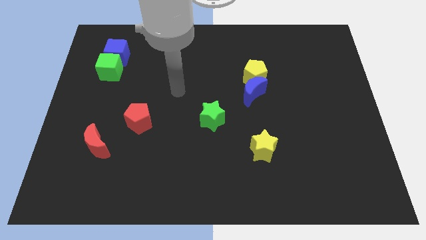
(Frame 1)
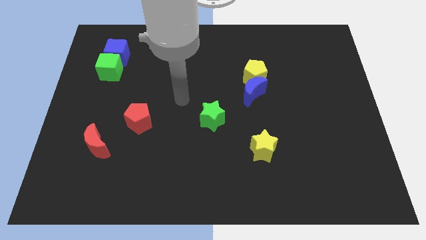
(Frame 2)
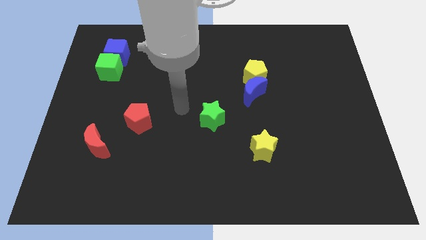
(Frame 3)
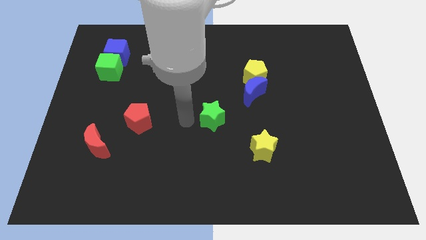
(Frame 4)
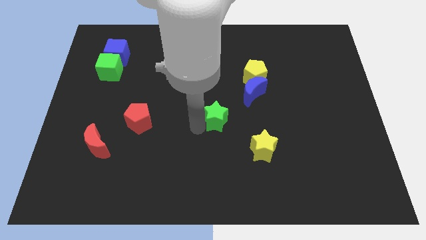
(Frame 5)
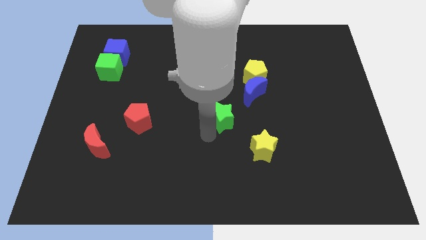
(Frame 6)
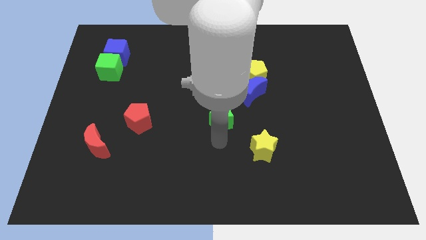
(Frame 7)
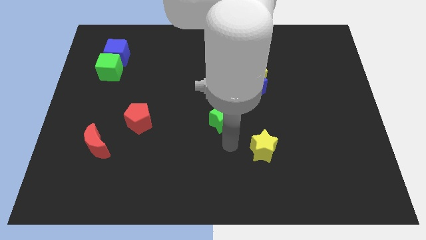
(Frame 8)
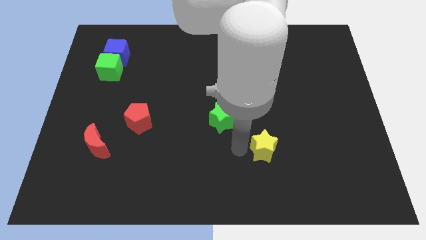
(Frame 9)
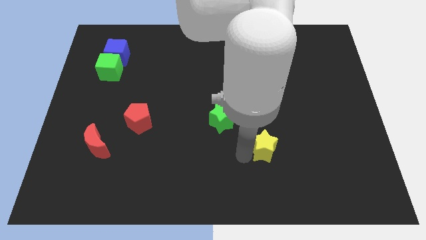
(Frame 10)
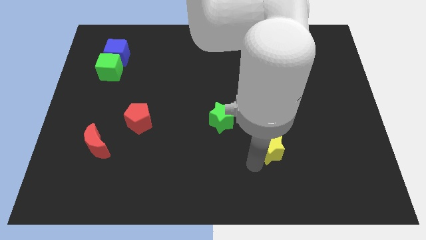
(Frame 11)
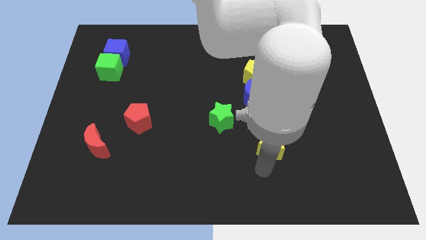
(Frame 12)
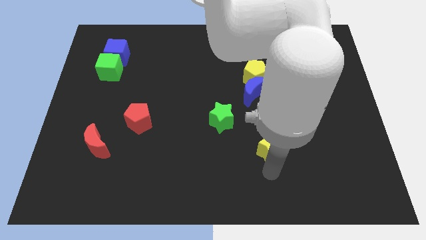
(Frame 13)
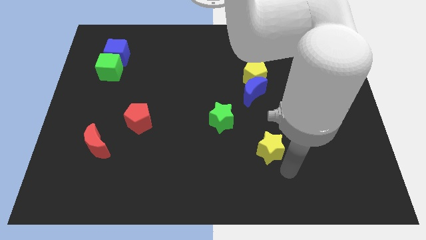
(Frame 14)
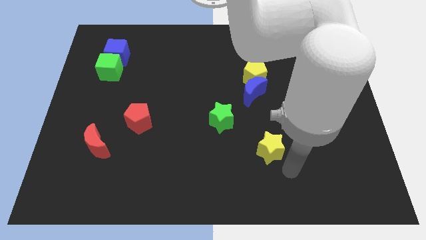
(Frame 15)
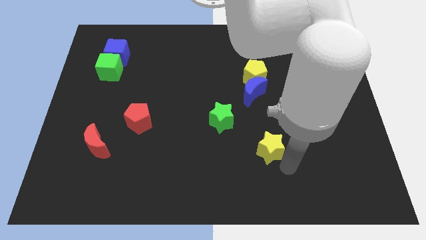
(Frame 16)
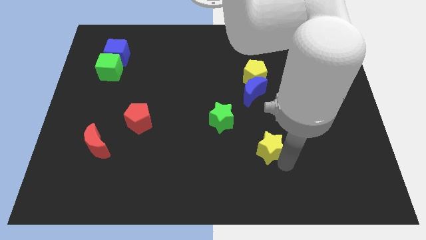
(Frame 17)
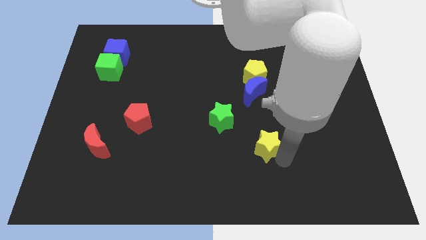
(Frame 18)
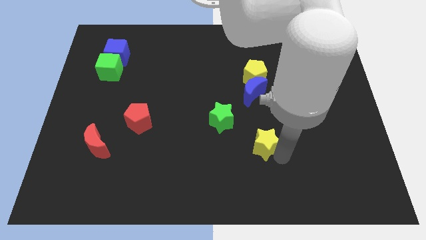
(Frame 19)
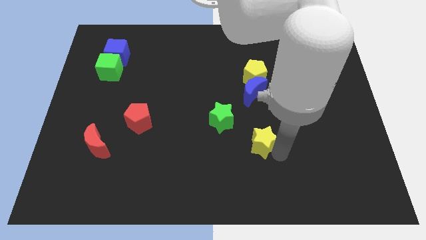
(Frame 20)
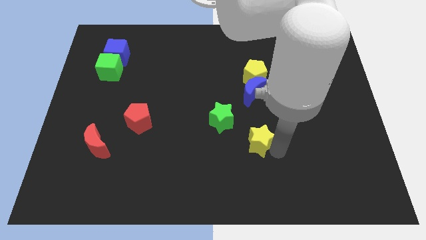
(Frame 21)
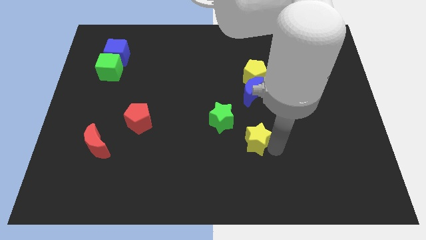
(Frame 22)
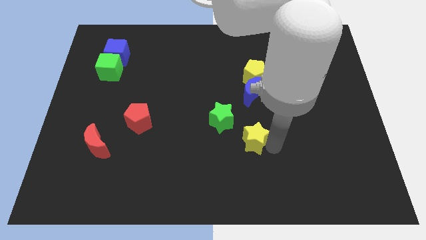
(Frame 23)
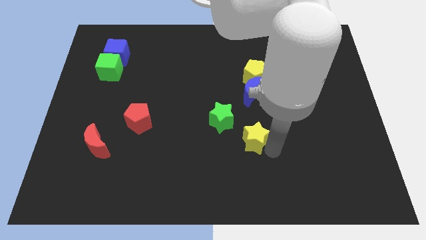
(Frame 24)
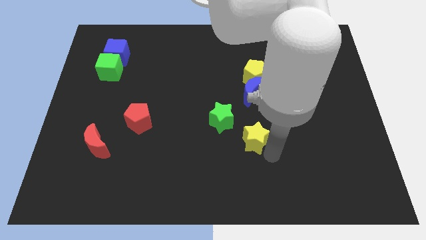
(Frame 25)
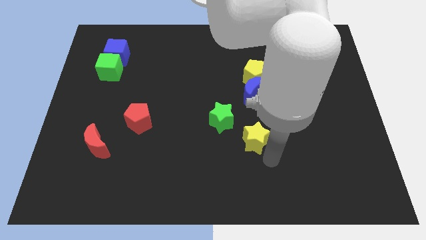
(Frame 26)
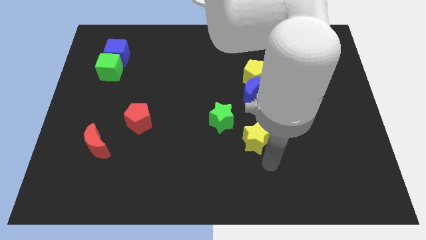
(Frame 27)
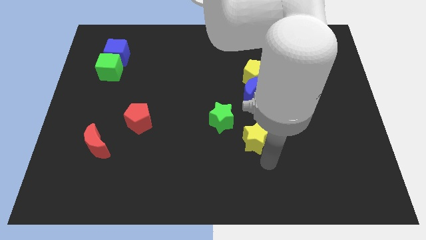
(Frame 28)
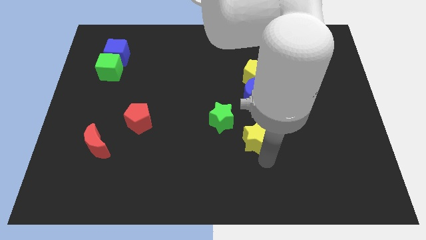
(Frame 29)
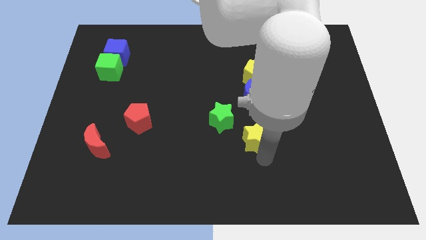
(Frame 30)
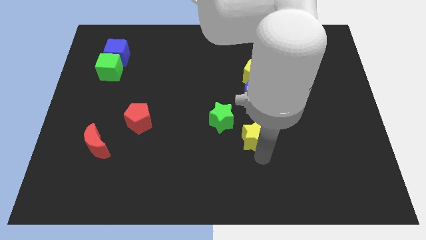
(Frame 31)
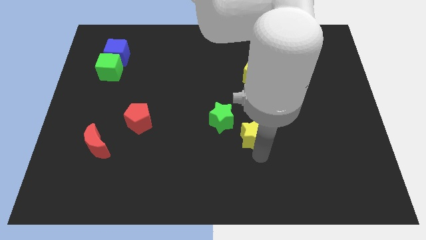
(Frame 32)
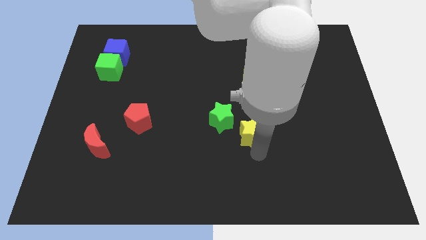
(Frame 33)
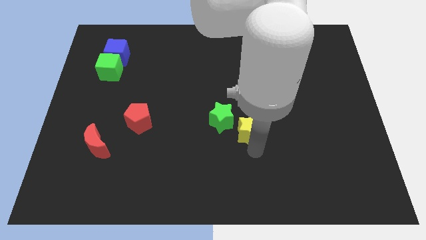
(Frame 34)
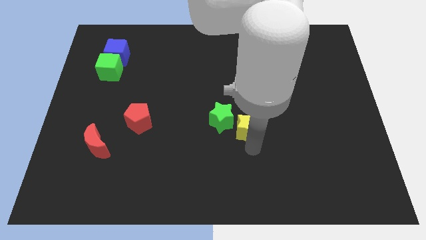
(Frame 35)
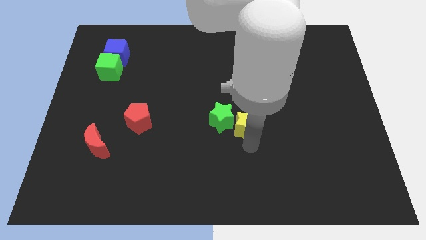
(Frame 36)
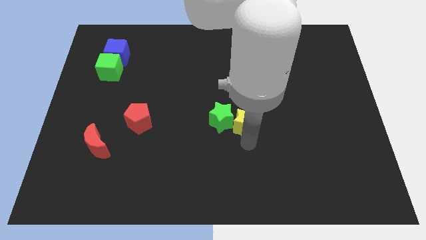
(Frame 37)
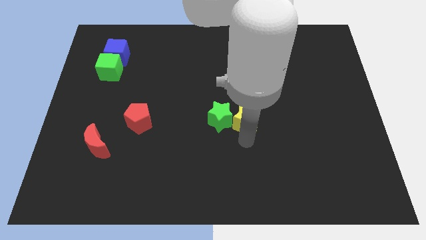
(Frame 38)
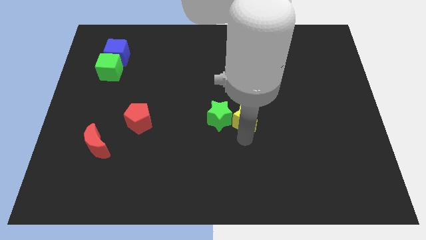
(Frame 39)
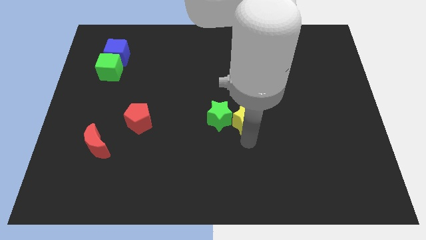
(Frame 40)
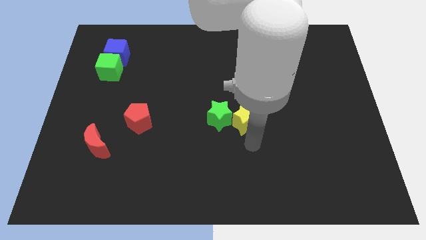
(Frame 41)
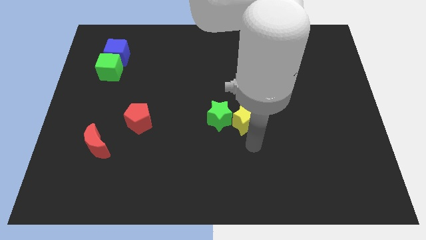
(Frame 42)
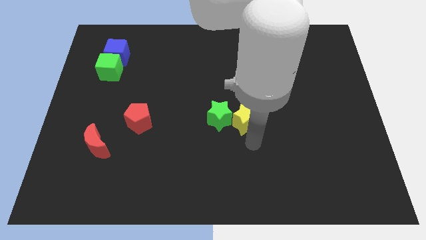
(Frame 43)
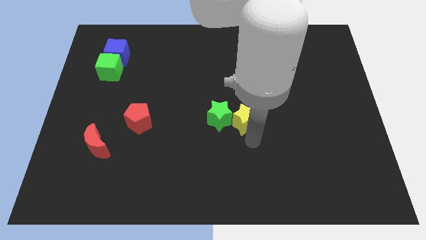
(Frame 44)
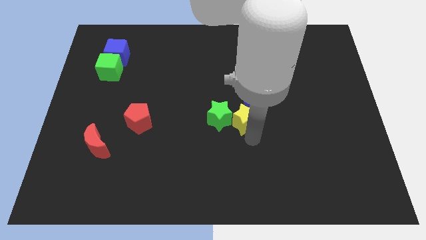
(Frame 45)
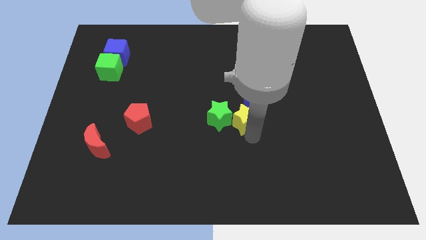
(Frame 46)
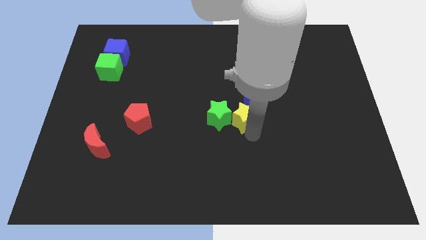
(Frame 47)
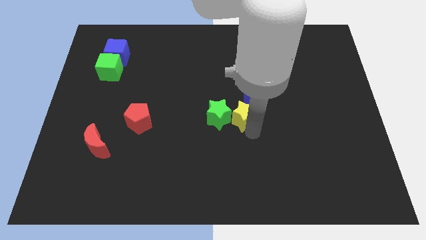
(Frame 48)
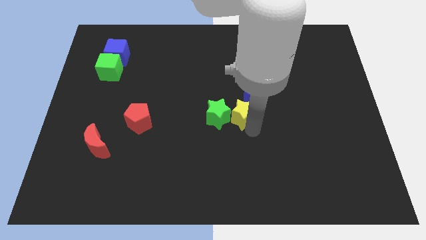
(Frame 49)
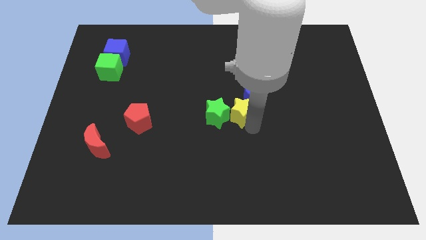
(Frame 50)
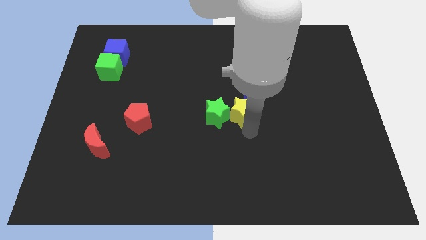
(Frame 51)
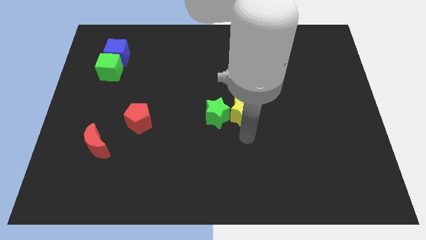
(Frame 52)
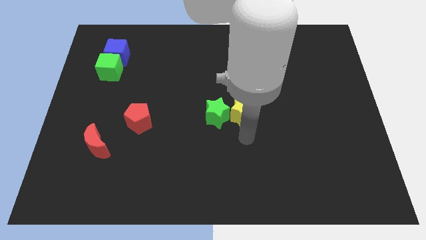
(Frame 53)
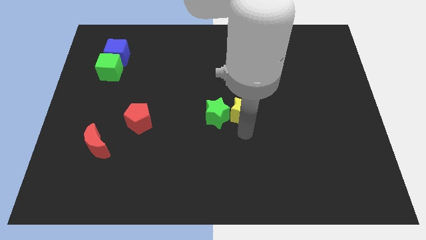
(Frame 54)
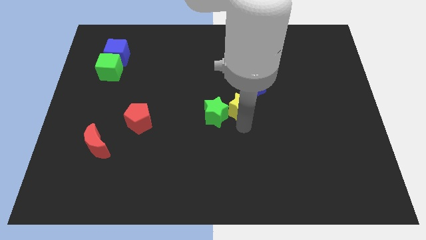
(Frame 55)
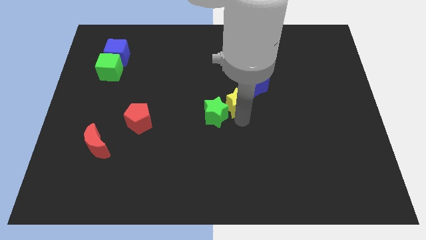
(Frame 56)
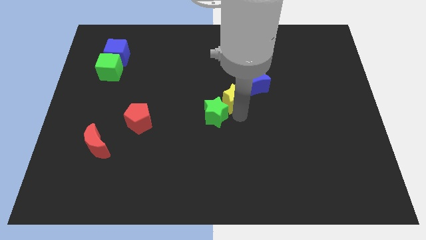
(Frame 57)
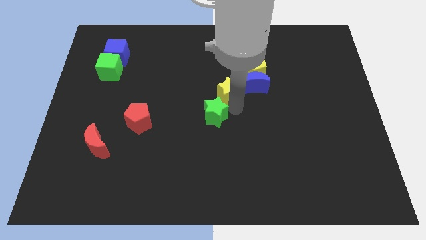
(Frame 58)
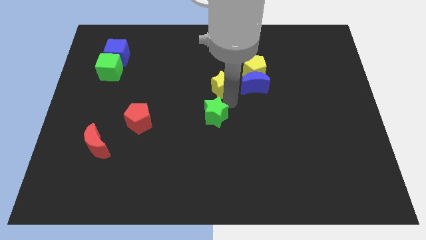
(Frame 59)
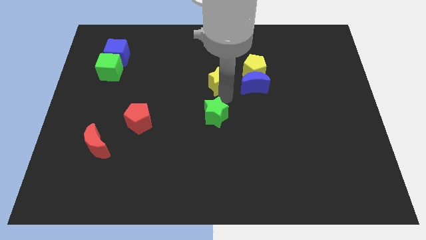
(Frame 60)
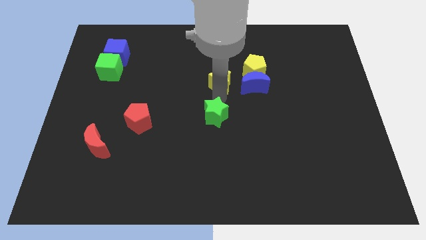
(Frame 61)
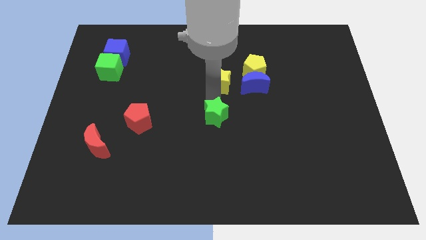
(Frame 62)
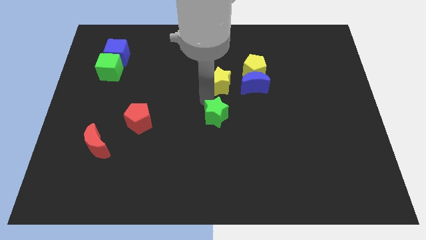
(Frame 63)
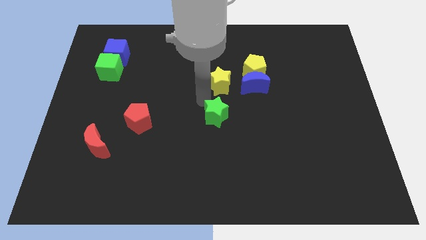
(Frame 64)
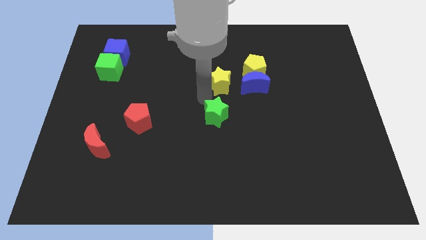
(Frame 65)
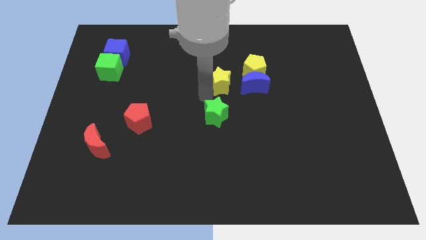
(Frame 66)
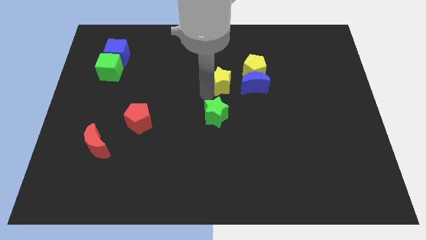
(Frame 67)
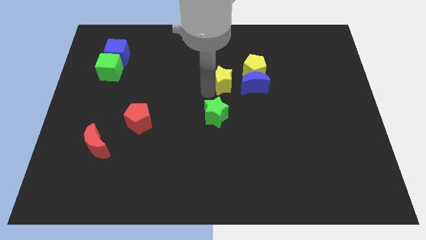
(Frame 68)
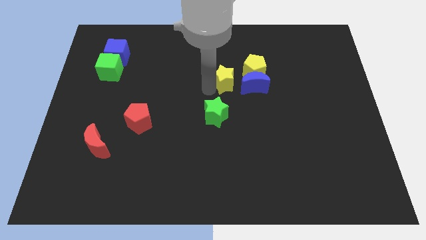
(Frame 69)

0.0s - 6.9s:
push the yellow star to the top left of the blue moon
